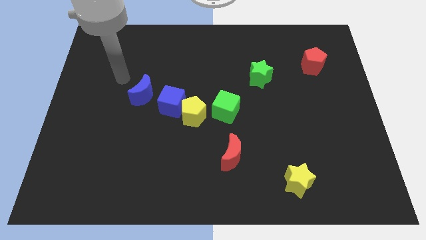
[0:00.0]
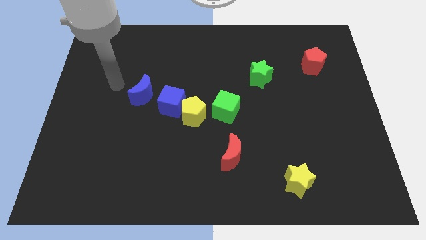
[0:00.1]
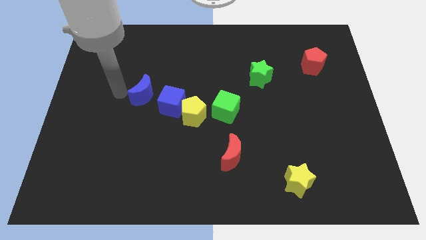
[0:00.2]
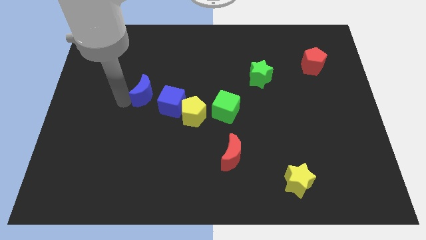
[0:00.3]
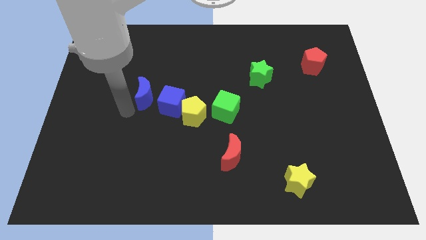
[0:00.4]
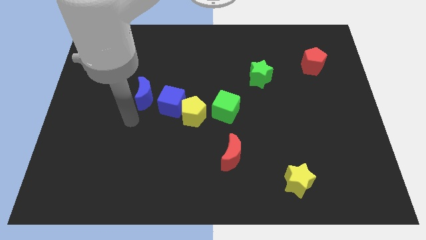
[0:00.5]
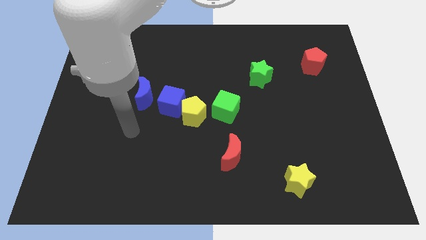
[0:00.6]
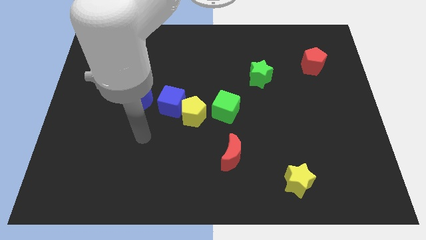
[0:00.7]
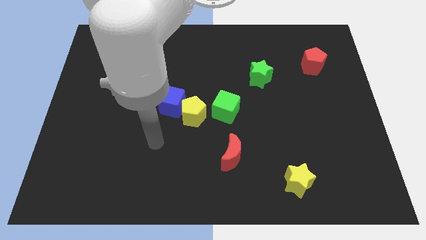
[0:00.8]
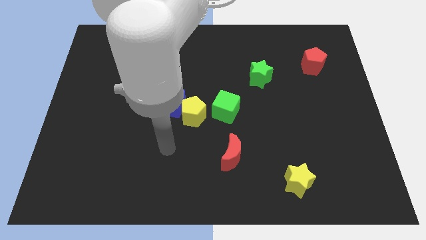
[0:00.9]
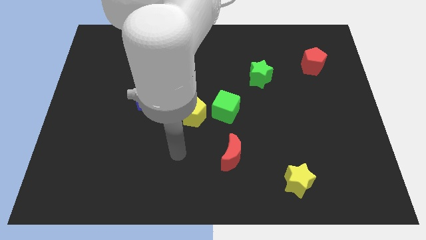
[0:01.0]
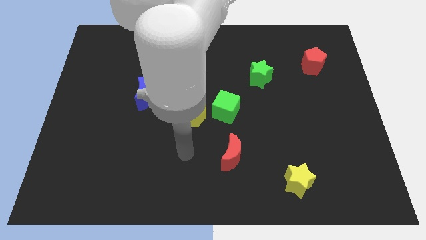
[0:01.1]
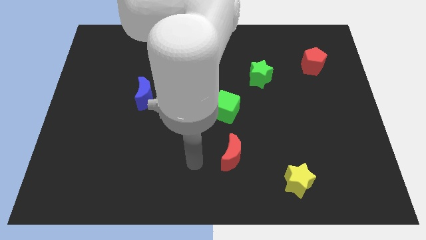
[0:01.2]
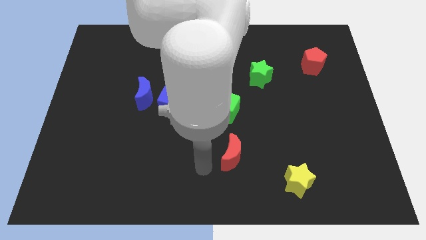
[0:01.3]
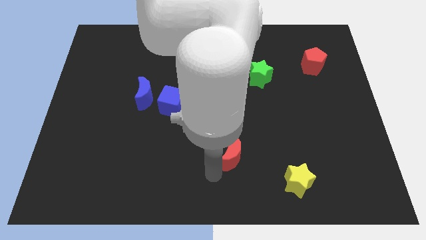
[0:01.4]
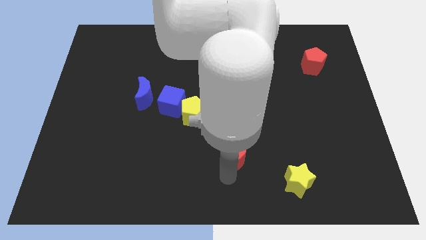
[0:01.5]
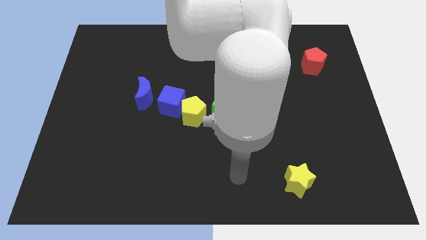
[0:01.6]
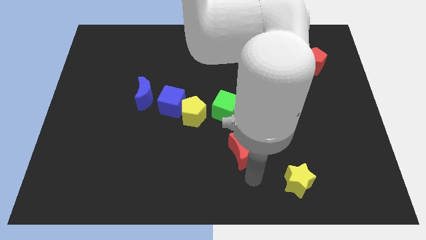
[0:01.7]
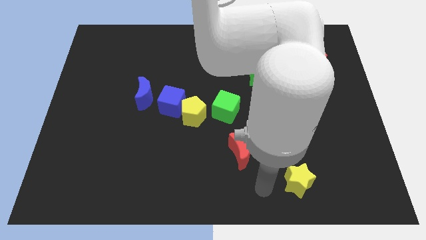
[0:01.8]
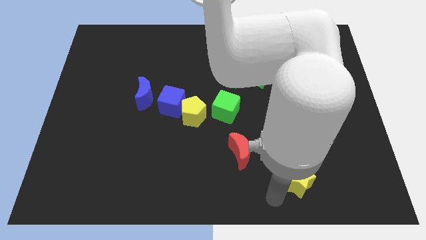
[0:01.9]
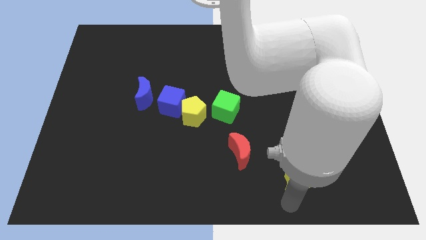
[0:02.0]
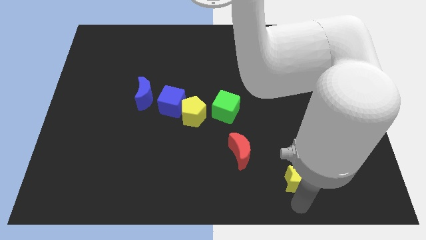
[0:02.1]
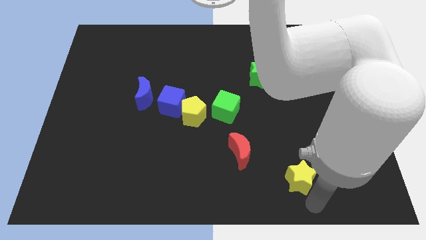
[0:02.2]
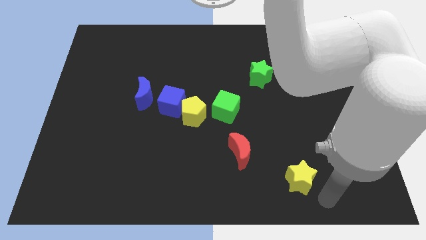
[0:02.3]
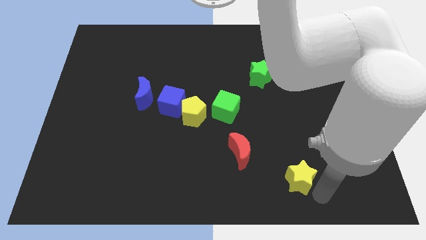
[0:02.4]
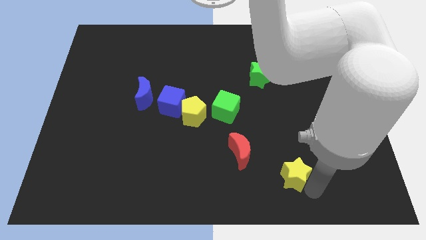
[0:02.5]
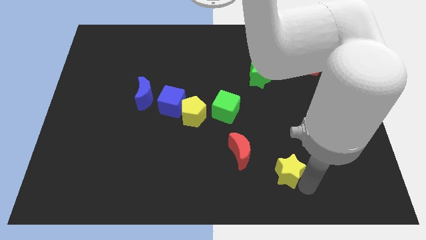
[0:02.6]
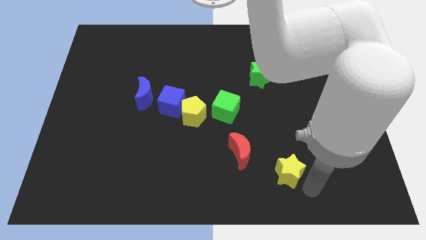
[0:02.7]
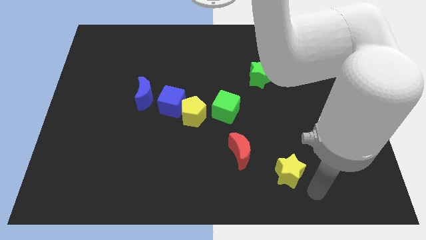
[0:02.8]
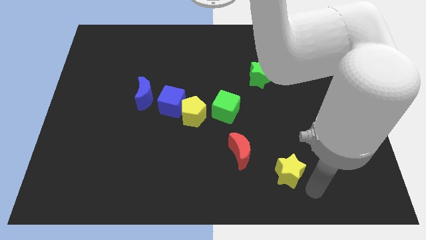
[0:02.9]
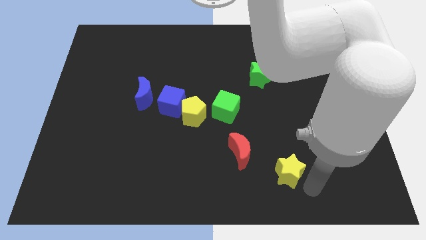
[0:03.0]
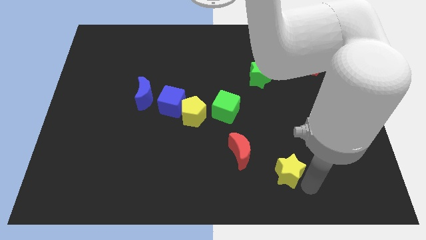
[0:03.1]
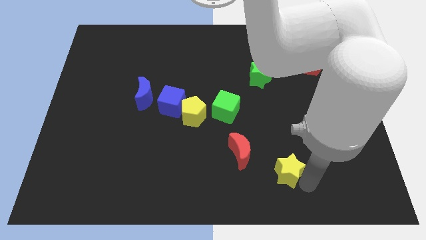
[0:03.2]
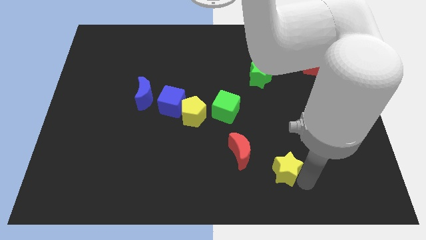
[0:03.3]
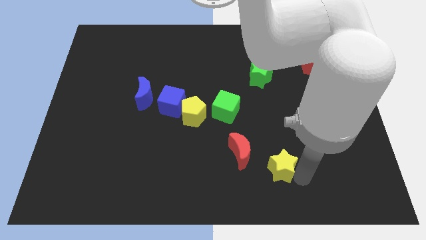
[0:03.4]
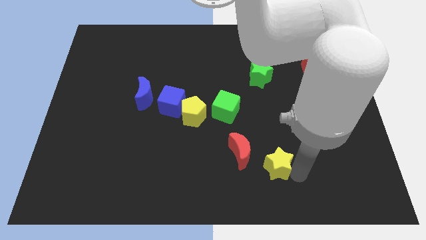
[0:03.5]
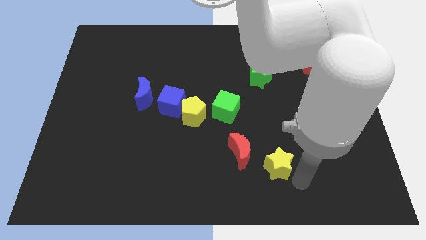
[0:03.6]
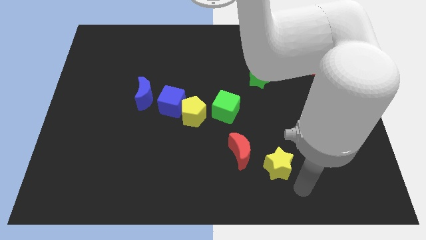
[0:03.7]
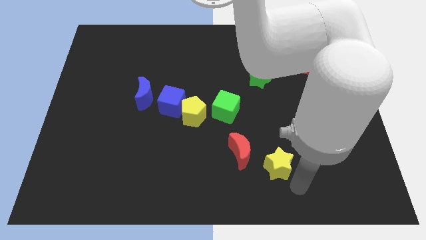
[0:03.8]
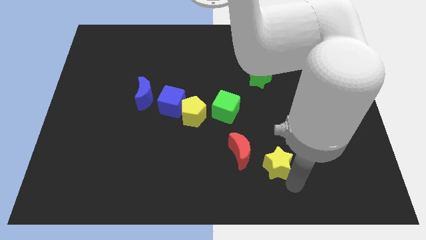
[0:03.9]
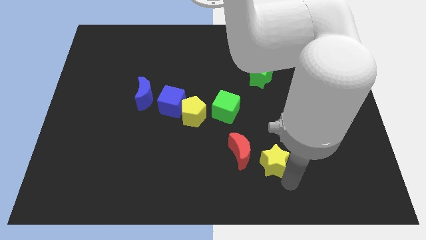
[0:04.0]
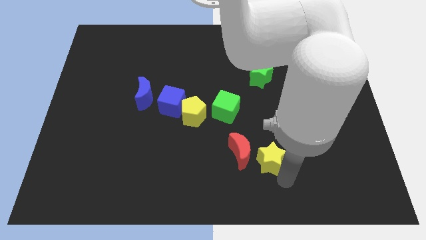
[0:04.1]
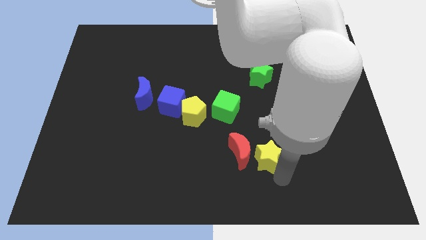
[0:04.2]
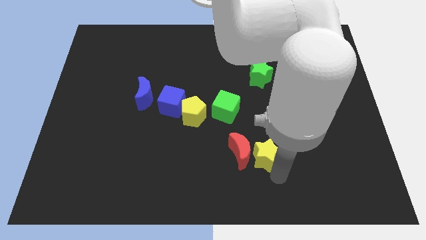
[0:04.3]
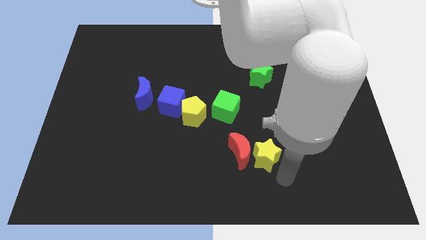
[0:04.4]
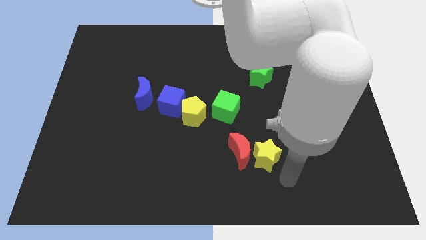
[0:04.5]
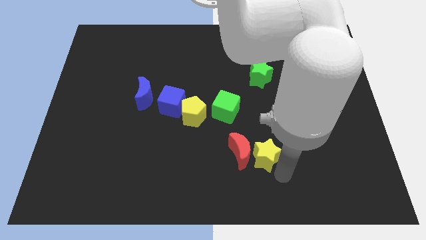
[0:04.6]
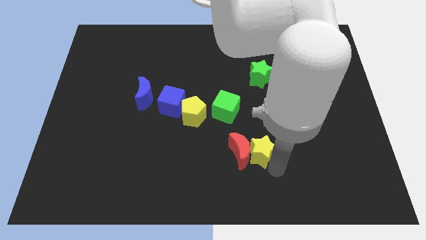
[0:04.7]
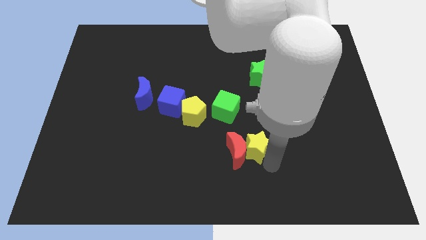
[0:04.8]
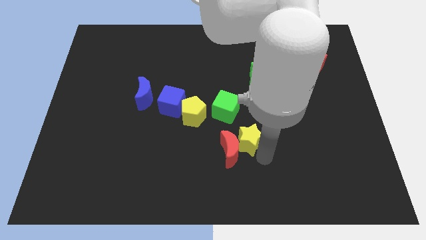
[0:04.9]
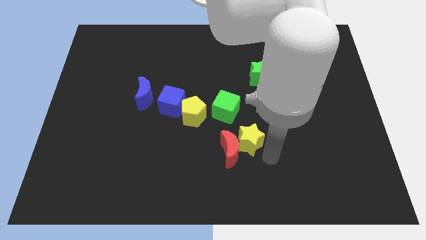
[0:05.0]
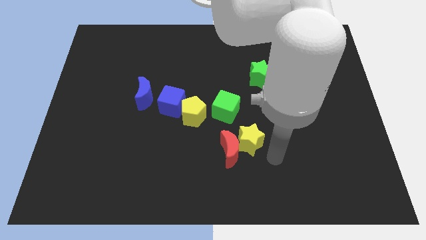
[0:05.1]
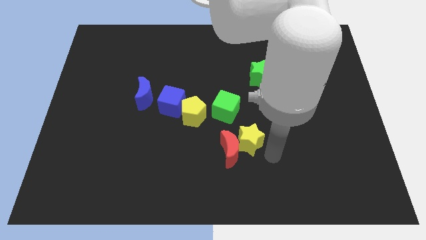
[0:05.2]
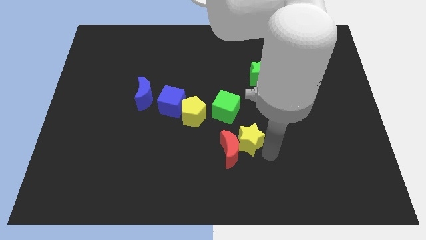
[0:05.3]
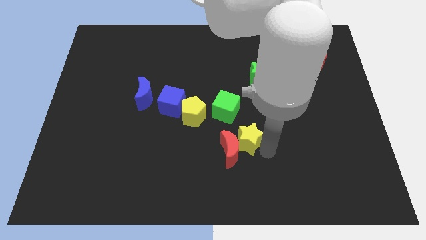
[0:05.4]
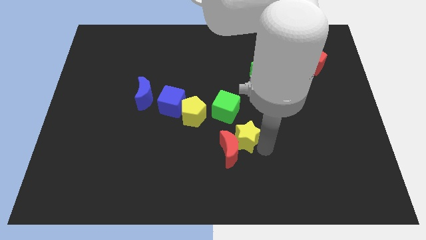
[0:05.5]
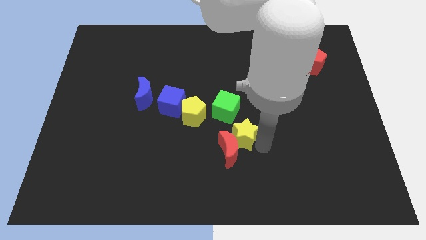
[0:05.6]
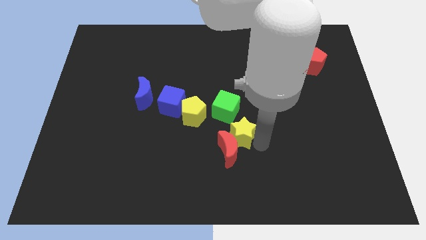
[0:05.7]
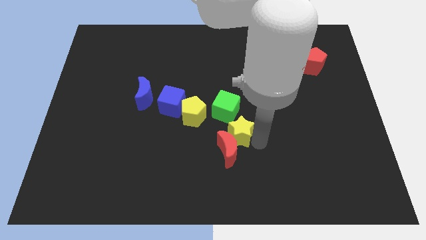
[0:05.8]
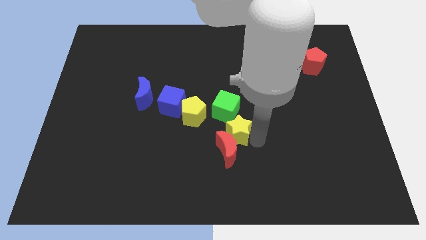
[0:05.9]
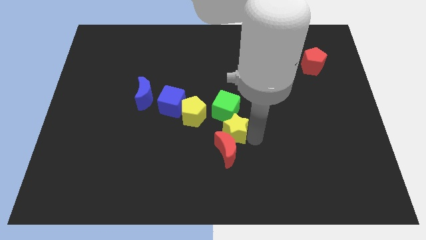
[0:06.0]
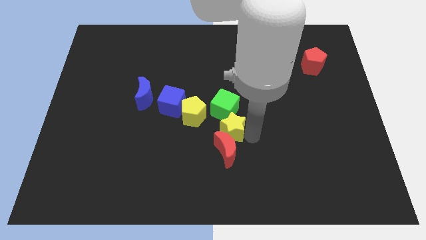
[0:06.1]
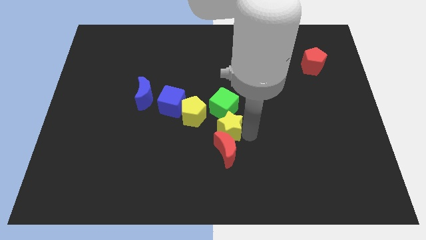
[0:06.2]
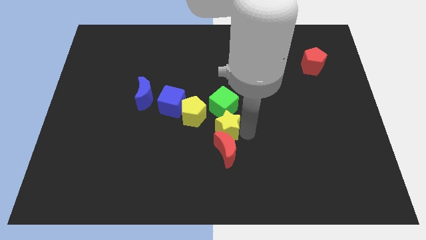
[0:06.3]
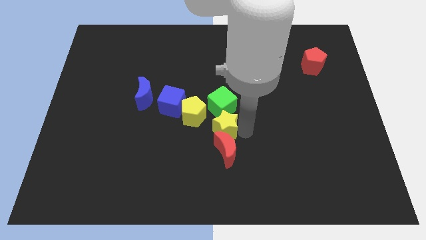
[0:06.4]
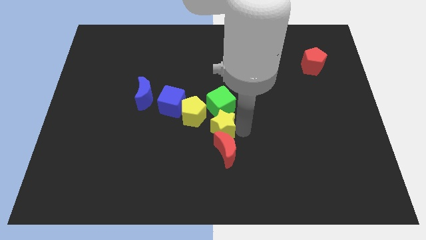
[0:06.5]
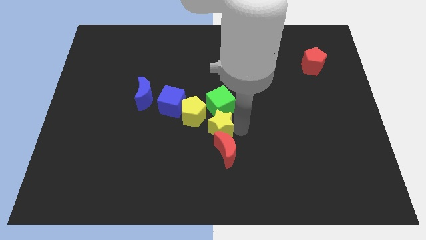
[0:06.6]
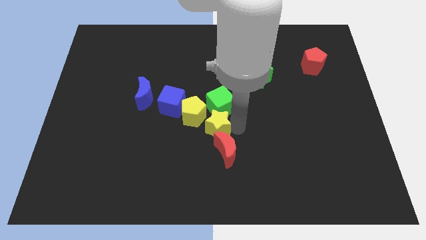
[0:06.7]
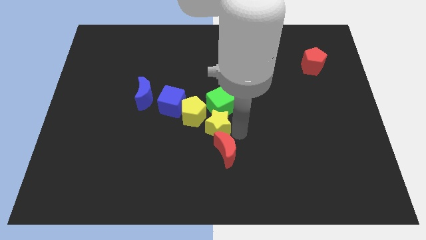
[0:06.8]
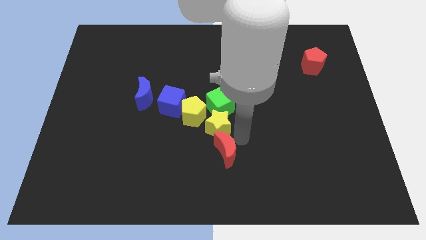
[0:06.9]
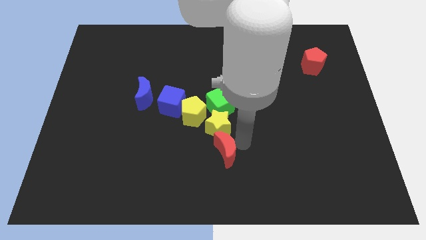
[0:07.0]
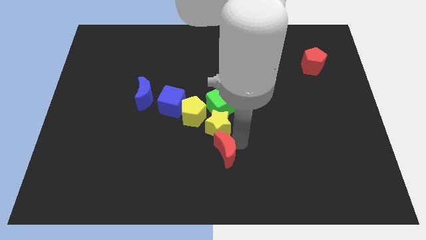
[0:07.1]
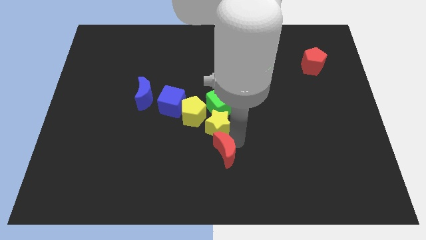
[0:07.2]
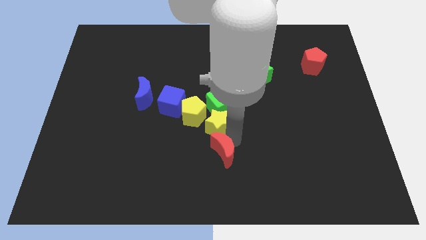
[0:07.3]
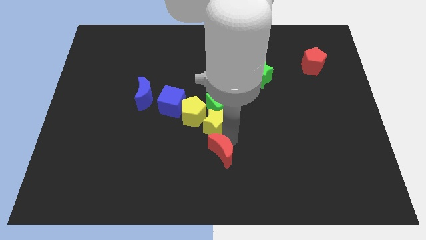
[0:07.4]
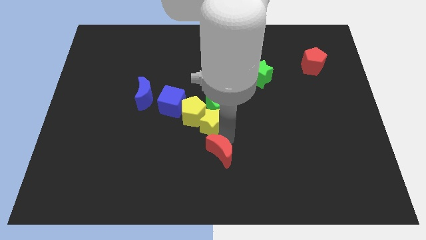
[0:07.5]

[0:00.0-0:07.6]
push the yellow star close to the yellow pentagon
